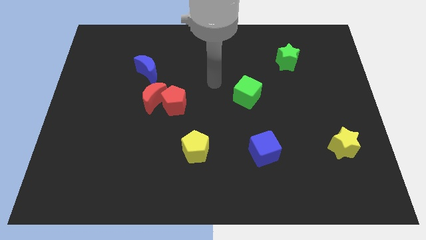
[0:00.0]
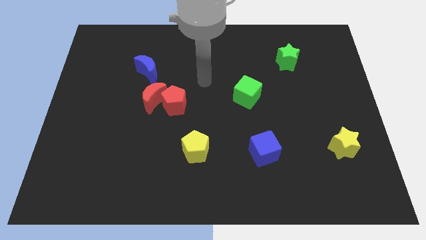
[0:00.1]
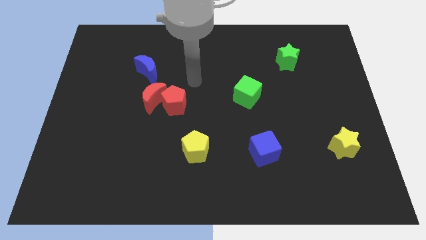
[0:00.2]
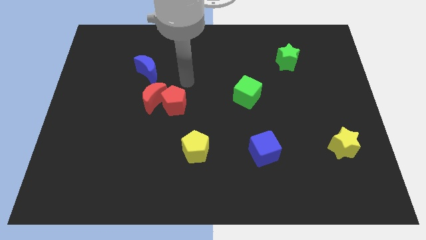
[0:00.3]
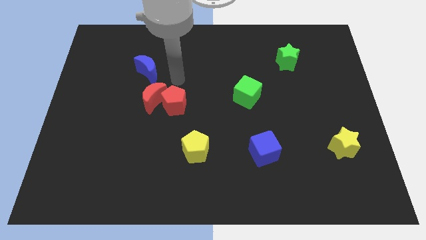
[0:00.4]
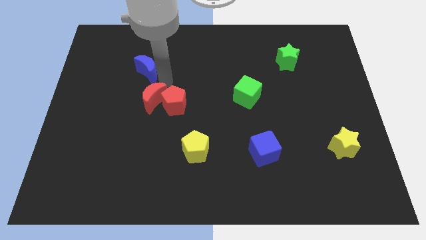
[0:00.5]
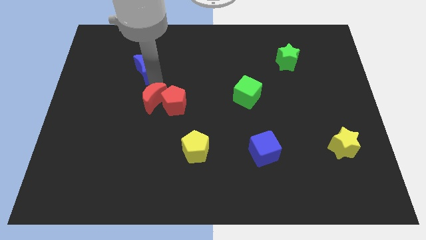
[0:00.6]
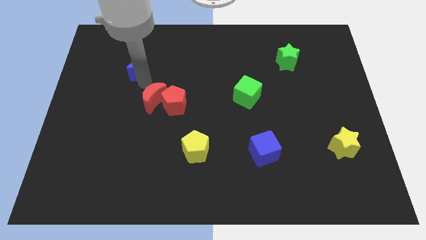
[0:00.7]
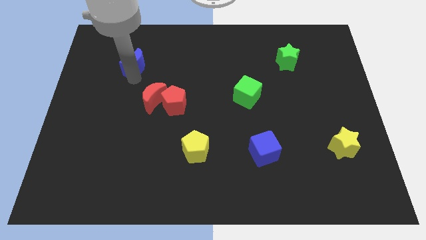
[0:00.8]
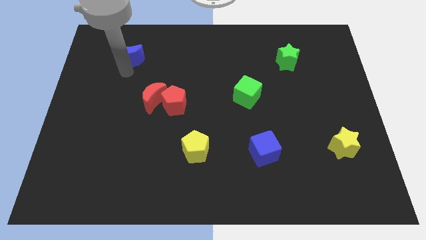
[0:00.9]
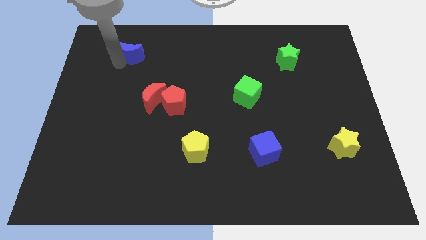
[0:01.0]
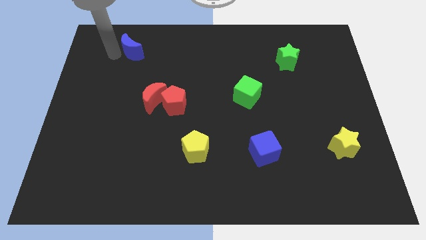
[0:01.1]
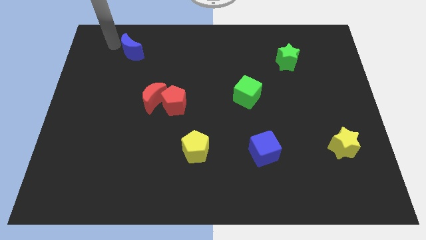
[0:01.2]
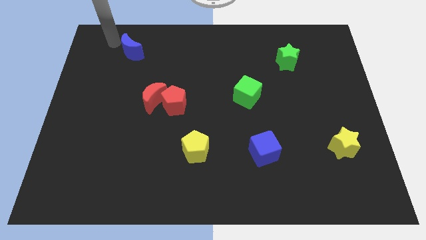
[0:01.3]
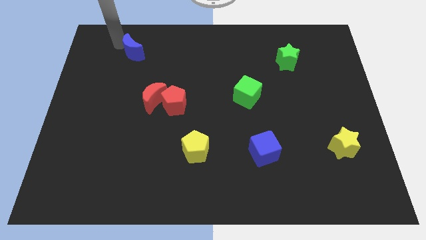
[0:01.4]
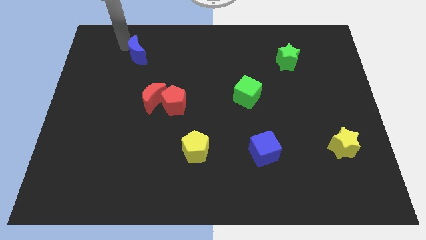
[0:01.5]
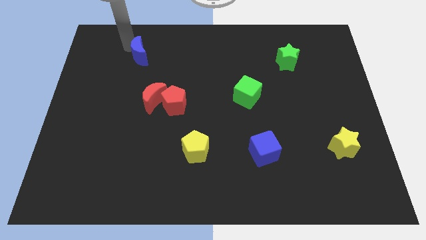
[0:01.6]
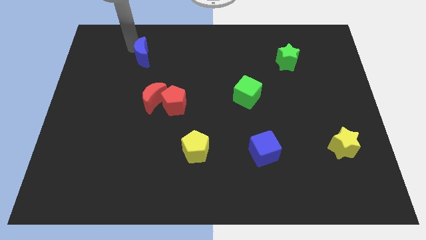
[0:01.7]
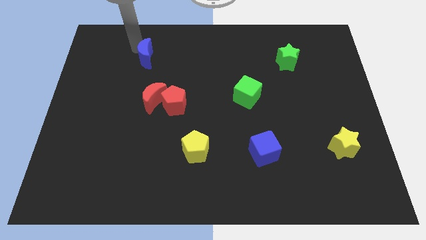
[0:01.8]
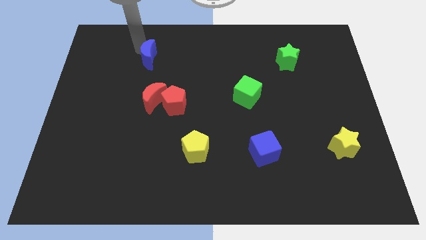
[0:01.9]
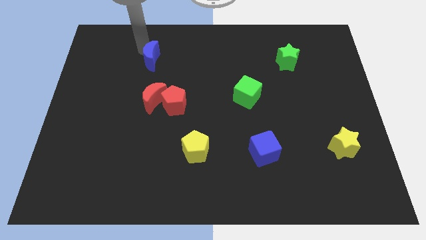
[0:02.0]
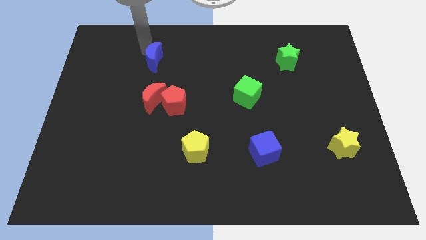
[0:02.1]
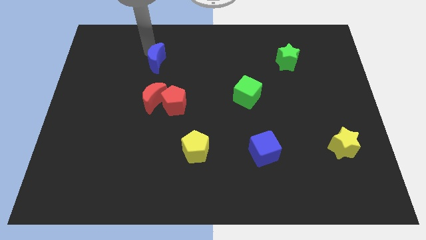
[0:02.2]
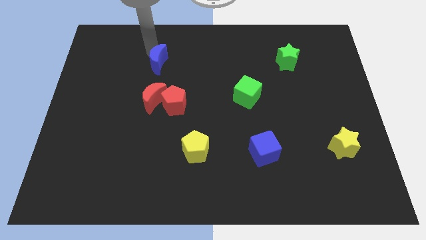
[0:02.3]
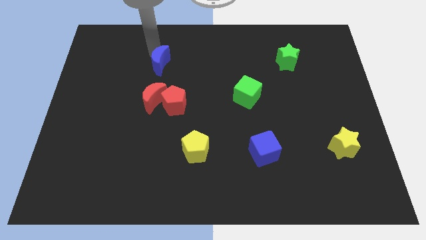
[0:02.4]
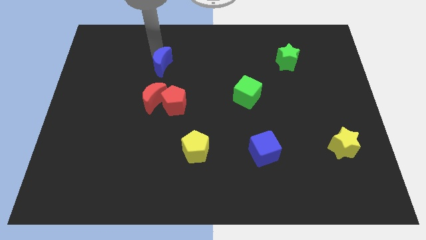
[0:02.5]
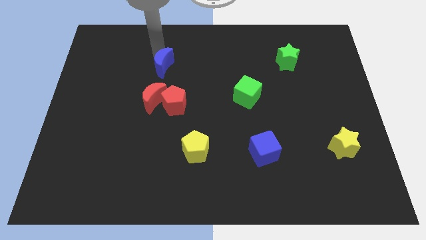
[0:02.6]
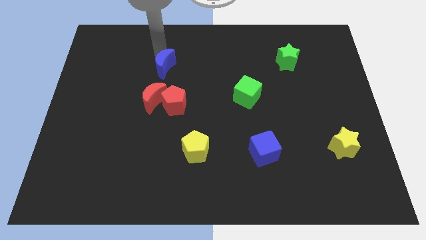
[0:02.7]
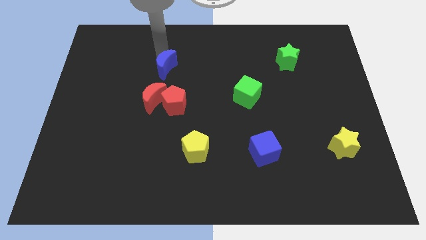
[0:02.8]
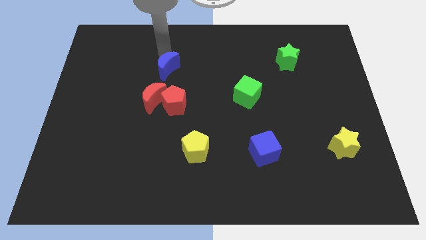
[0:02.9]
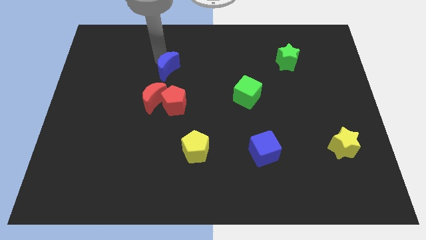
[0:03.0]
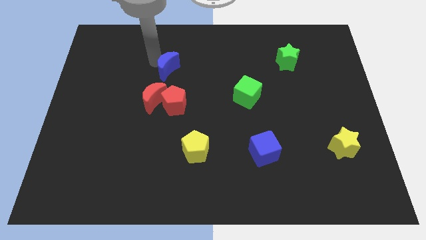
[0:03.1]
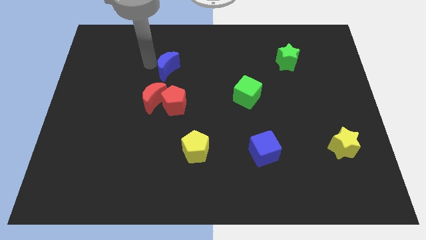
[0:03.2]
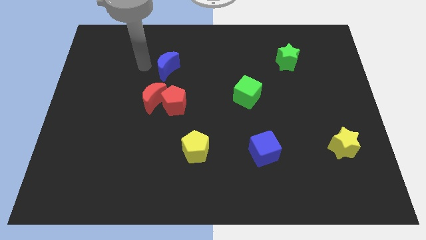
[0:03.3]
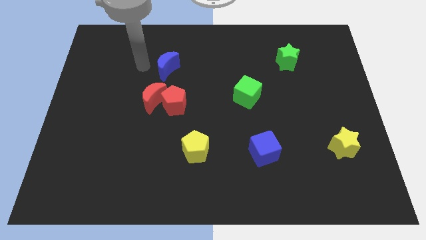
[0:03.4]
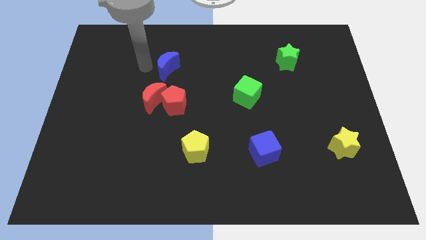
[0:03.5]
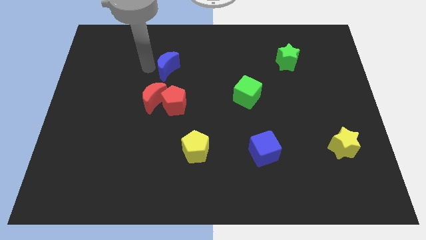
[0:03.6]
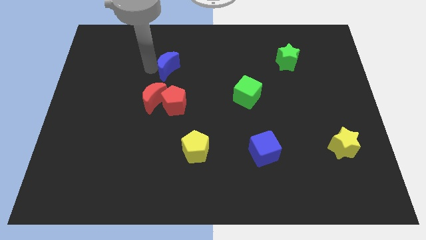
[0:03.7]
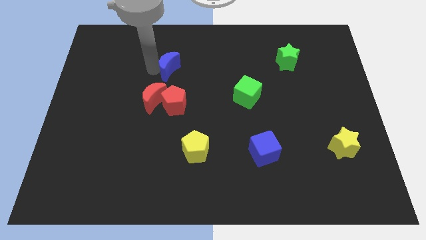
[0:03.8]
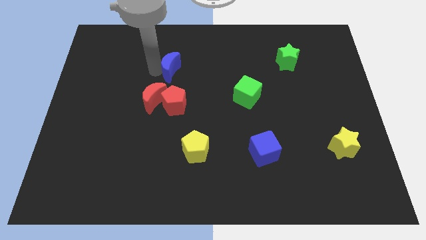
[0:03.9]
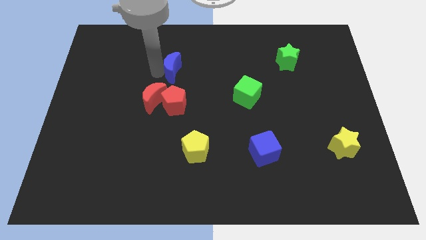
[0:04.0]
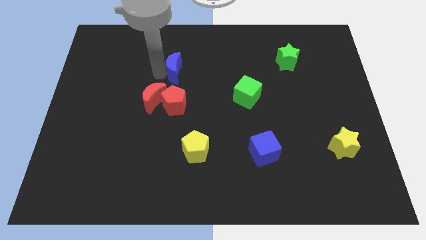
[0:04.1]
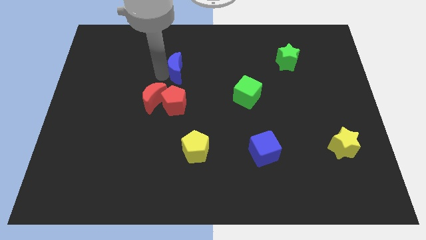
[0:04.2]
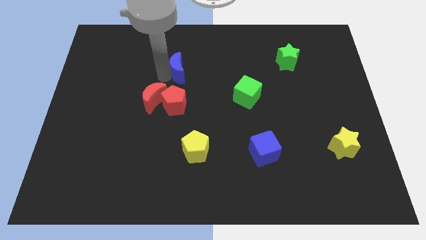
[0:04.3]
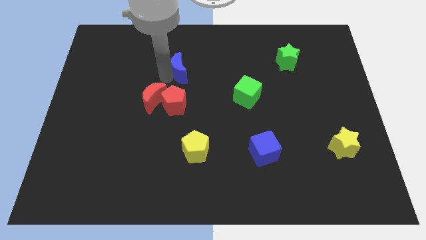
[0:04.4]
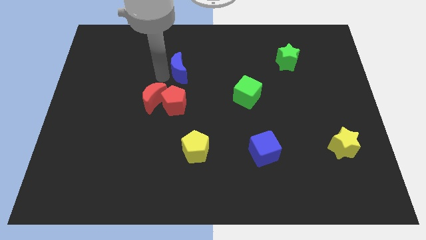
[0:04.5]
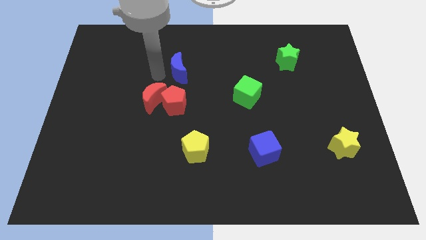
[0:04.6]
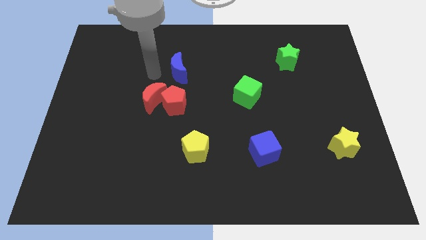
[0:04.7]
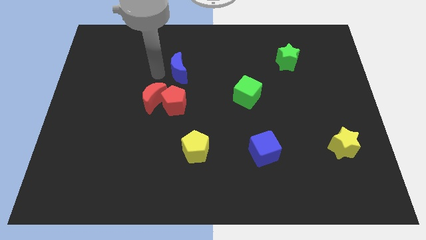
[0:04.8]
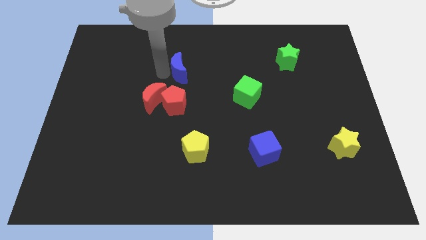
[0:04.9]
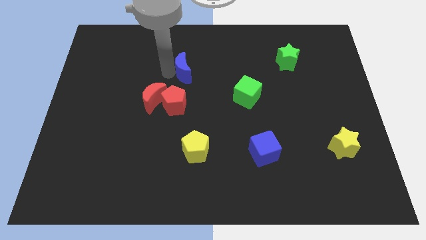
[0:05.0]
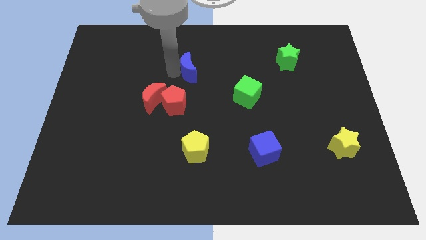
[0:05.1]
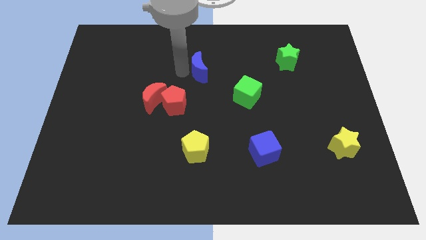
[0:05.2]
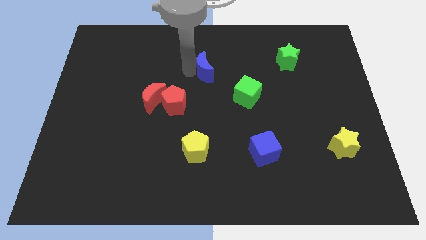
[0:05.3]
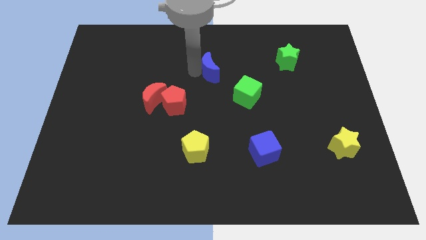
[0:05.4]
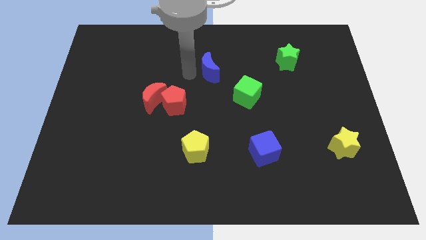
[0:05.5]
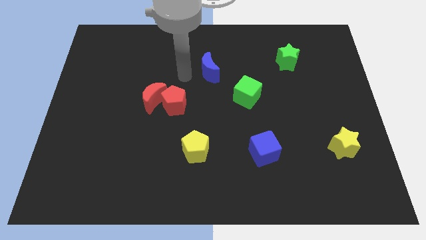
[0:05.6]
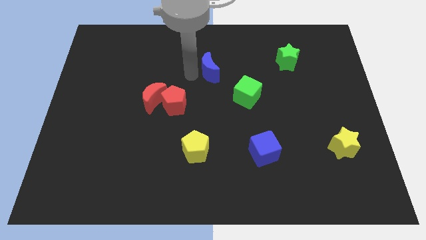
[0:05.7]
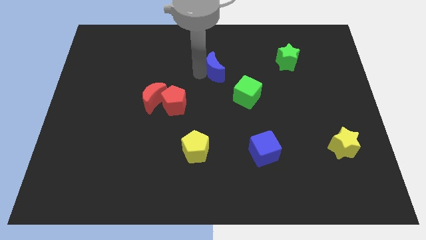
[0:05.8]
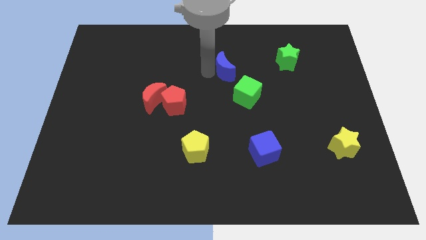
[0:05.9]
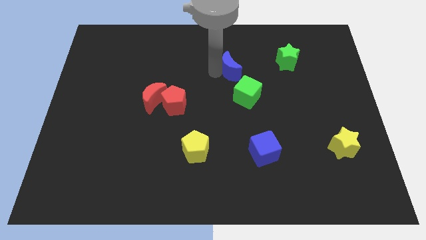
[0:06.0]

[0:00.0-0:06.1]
slide the blue moon to the top side of the green cube

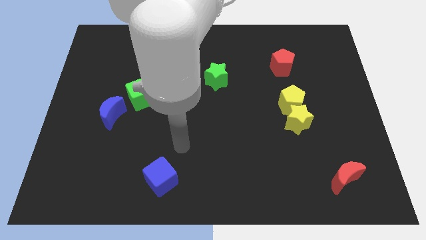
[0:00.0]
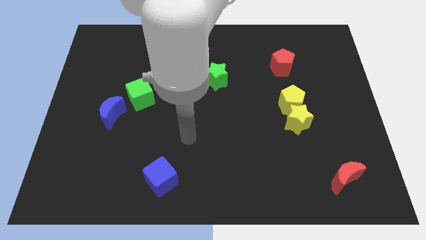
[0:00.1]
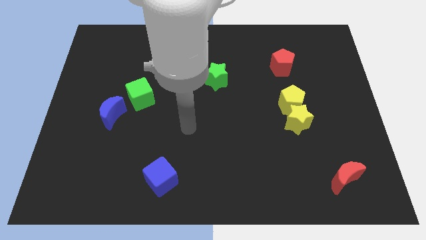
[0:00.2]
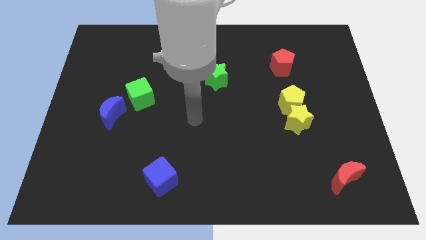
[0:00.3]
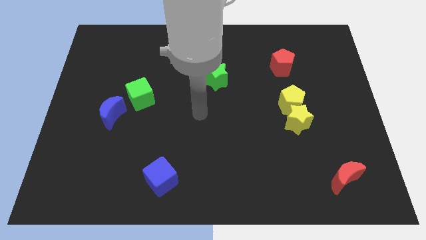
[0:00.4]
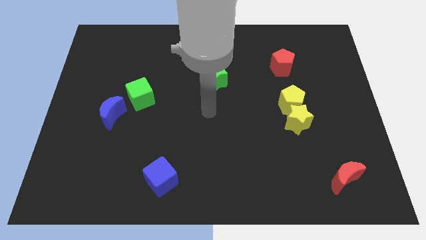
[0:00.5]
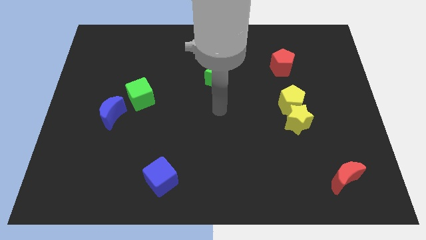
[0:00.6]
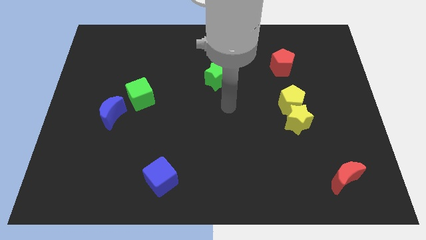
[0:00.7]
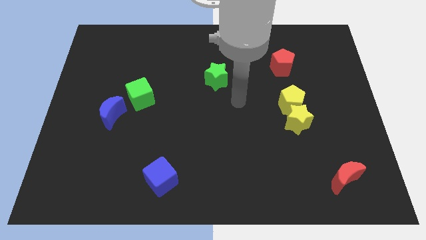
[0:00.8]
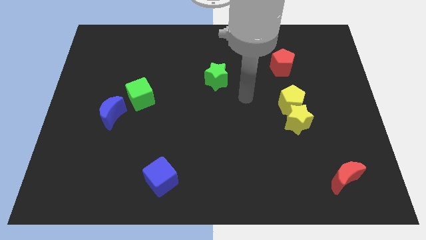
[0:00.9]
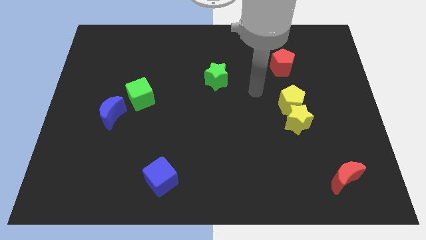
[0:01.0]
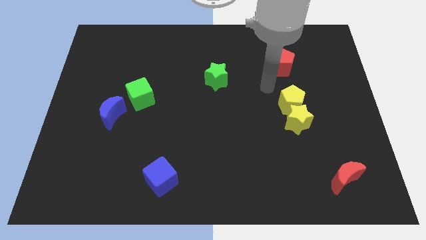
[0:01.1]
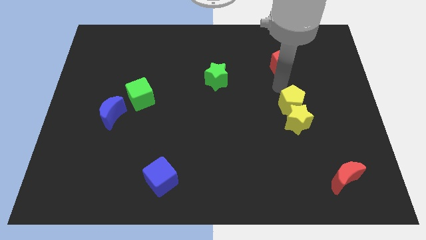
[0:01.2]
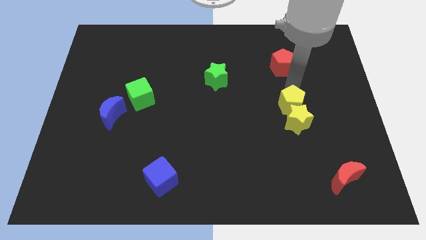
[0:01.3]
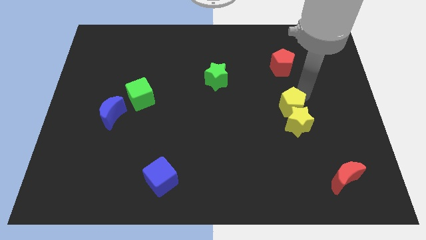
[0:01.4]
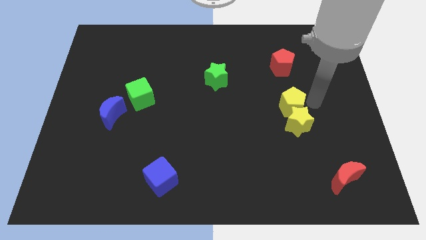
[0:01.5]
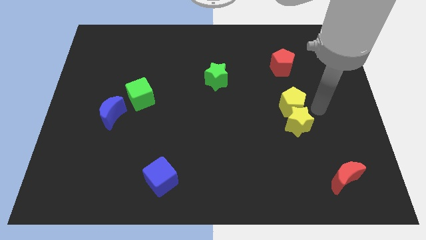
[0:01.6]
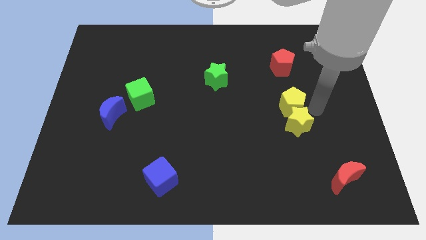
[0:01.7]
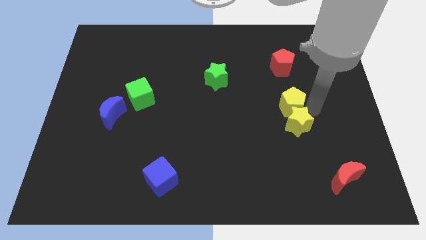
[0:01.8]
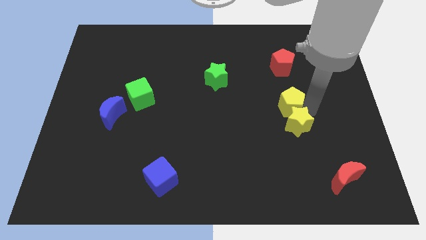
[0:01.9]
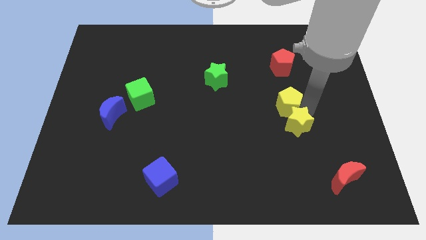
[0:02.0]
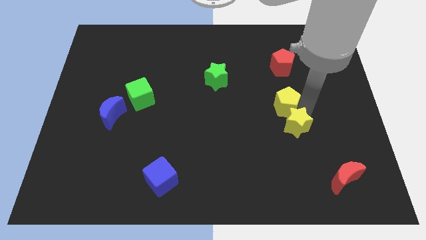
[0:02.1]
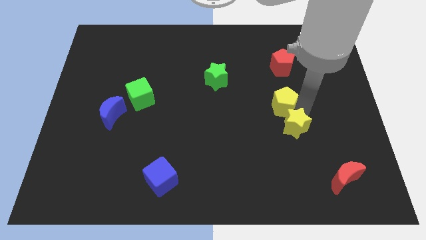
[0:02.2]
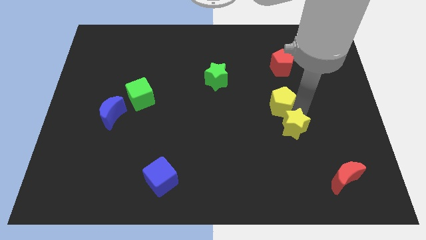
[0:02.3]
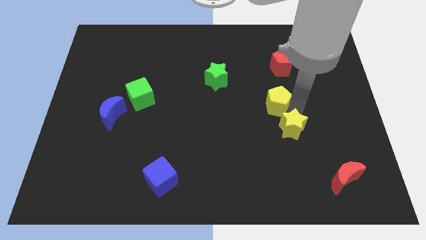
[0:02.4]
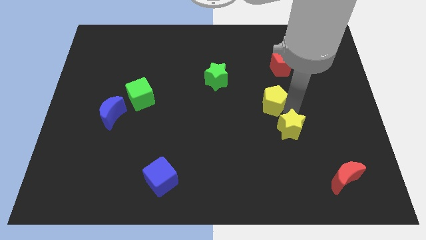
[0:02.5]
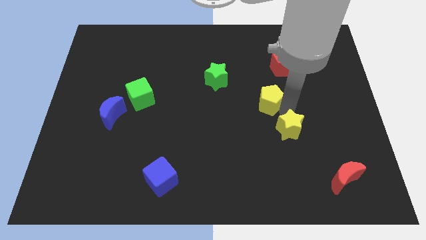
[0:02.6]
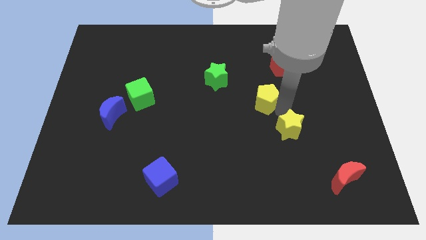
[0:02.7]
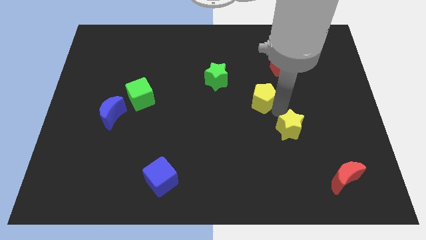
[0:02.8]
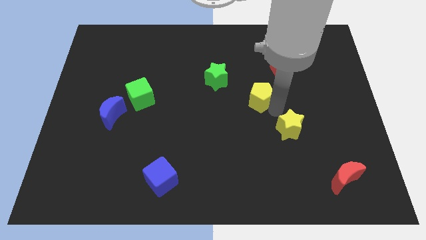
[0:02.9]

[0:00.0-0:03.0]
push the yellow pentagon diagonally down and to the right of the green star
